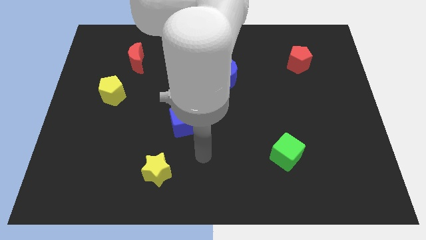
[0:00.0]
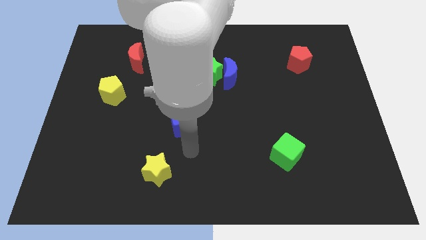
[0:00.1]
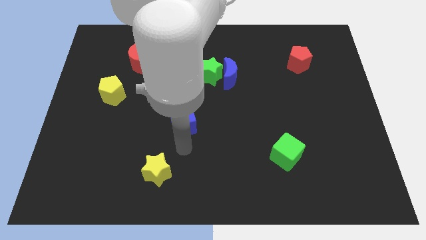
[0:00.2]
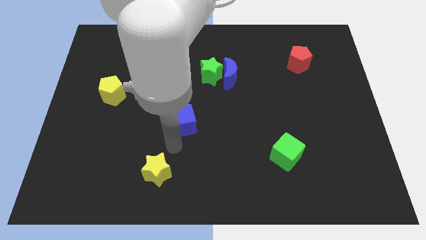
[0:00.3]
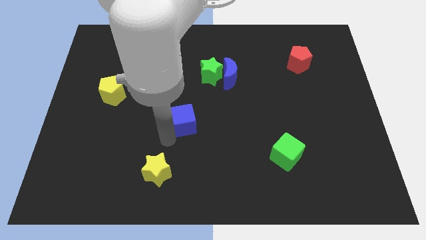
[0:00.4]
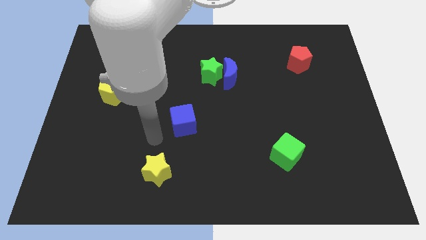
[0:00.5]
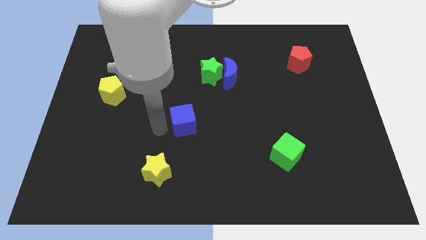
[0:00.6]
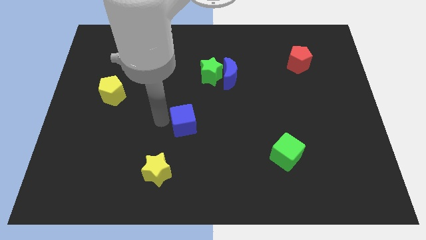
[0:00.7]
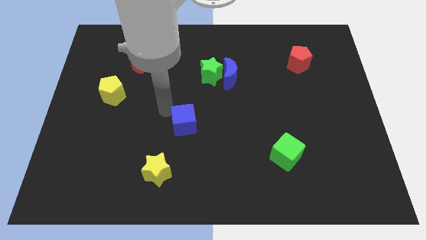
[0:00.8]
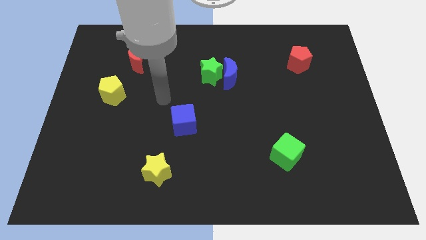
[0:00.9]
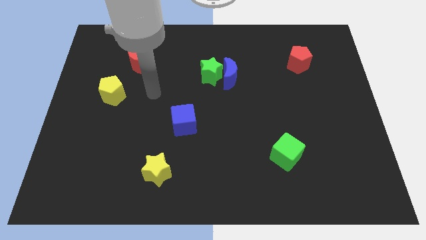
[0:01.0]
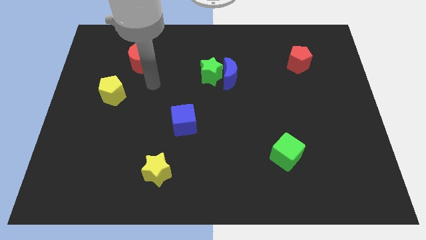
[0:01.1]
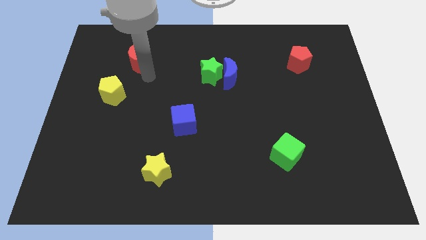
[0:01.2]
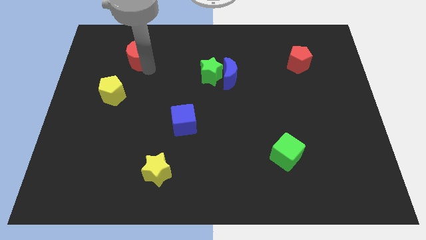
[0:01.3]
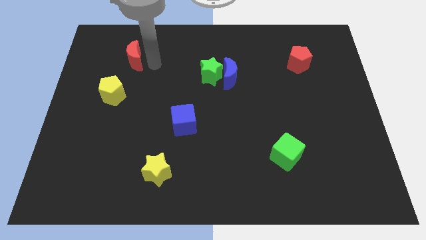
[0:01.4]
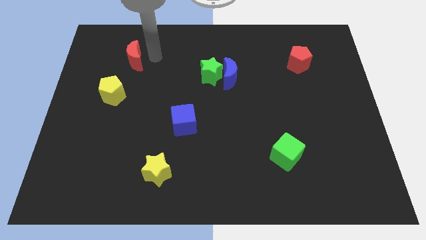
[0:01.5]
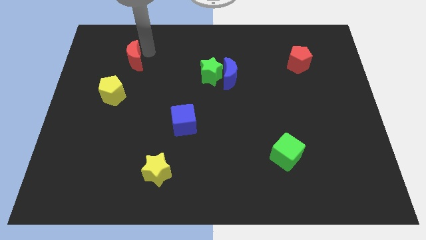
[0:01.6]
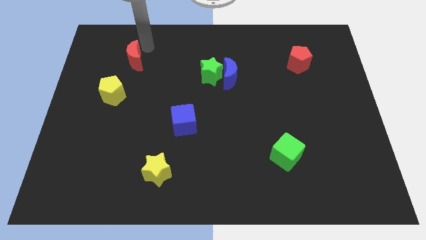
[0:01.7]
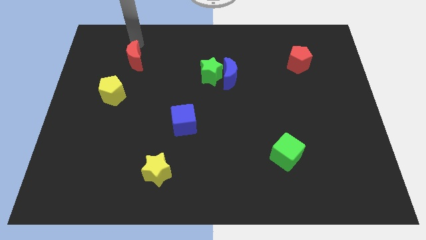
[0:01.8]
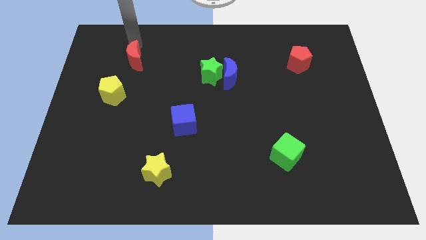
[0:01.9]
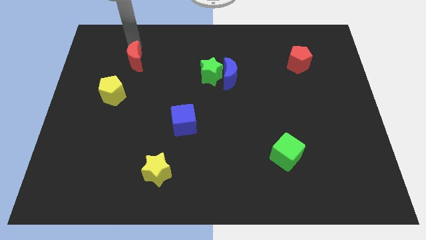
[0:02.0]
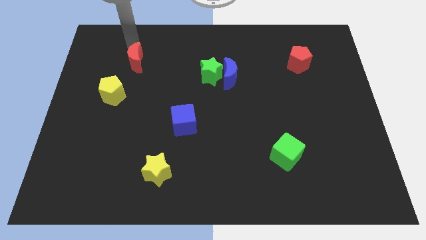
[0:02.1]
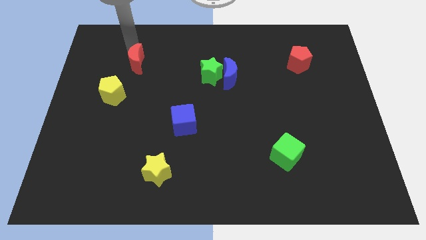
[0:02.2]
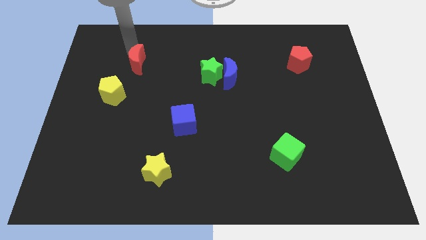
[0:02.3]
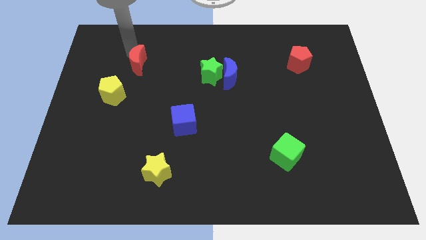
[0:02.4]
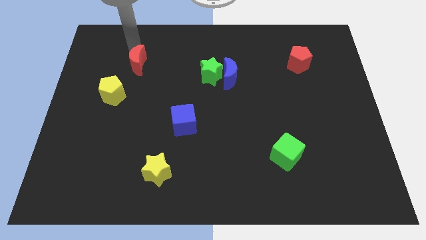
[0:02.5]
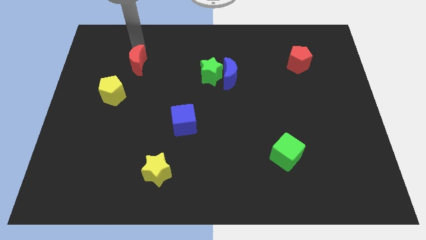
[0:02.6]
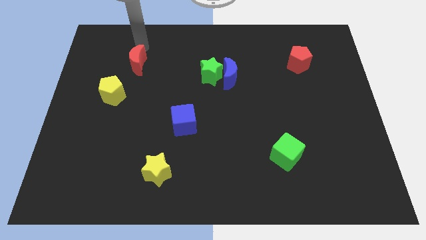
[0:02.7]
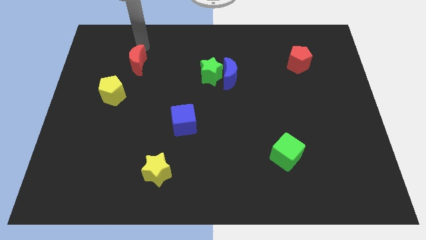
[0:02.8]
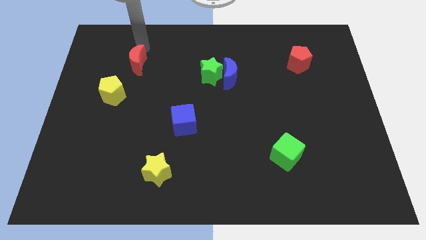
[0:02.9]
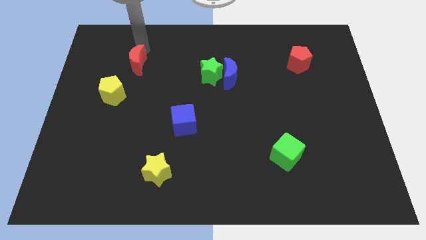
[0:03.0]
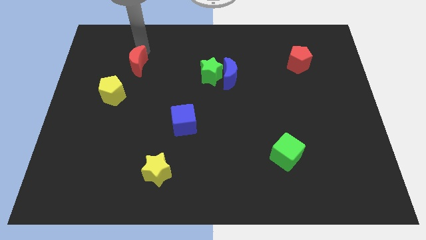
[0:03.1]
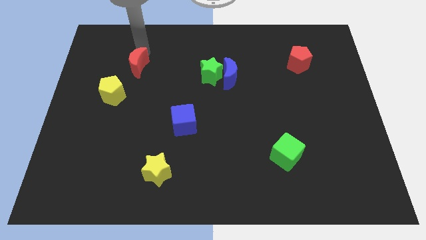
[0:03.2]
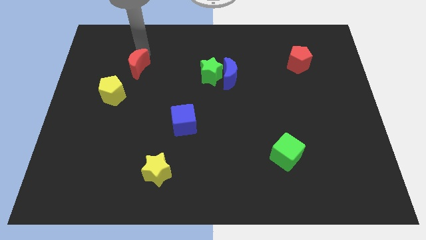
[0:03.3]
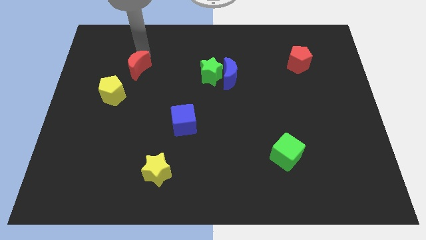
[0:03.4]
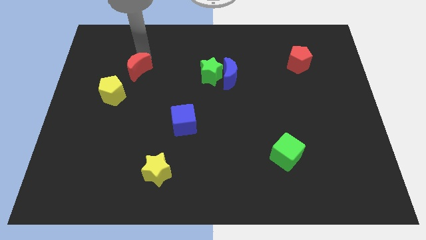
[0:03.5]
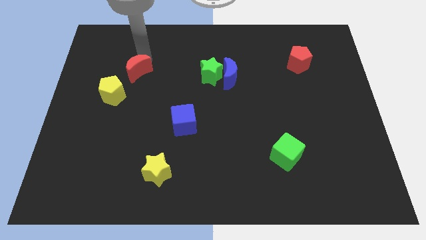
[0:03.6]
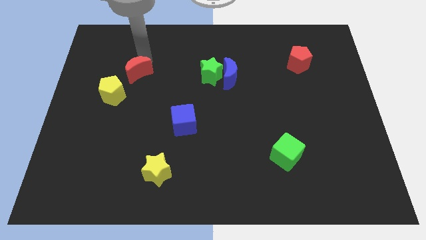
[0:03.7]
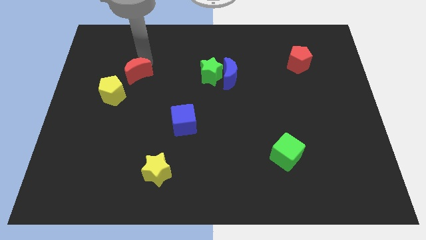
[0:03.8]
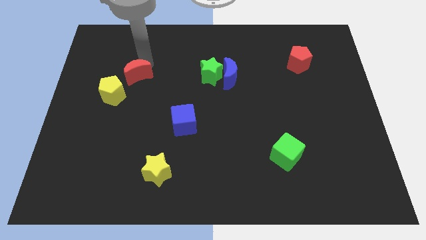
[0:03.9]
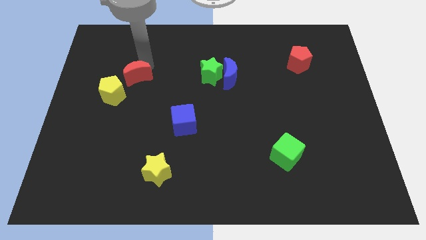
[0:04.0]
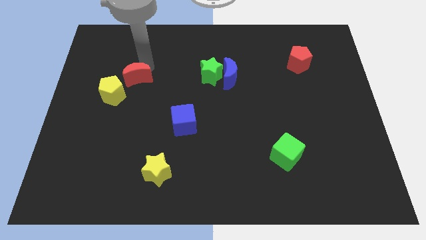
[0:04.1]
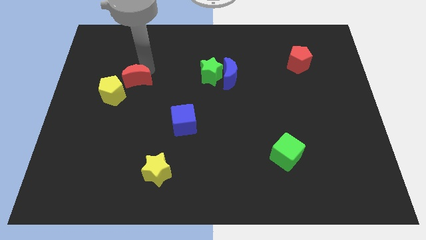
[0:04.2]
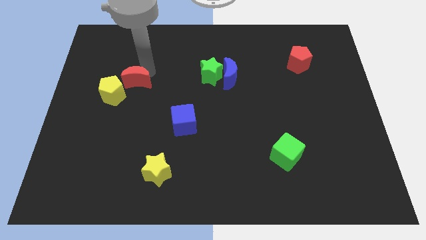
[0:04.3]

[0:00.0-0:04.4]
move the red moon a bit downwards

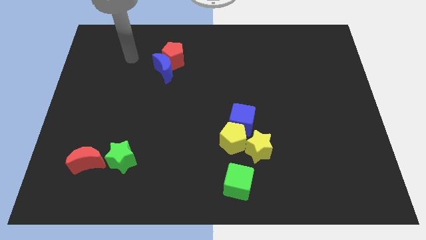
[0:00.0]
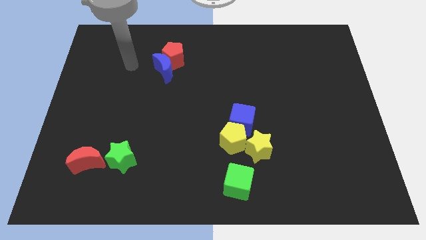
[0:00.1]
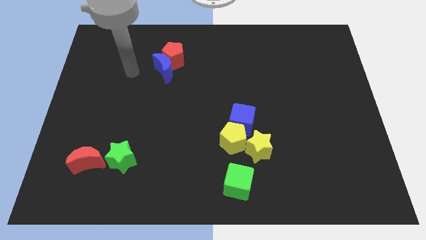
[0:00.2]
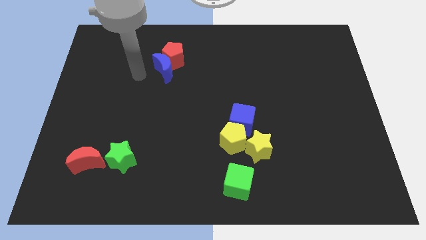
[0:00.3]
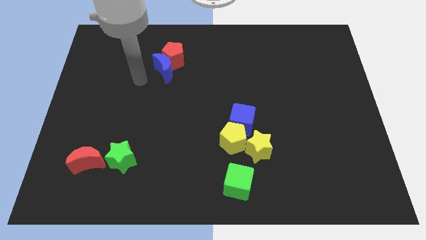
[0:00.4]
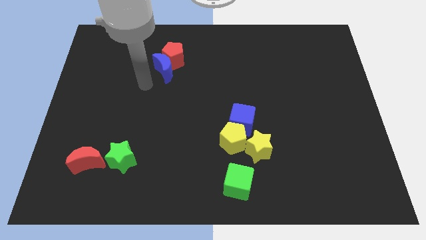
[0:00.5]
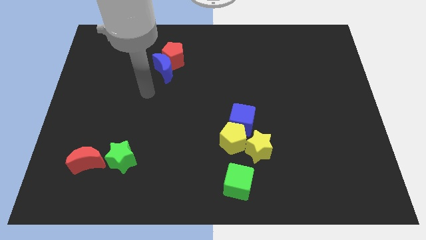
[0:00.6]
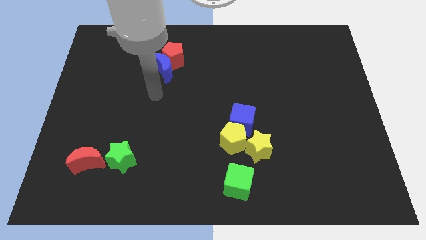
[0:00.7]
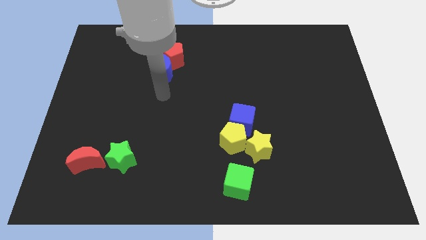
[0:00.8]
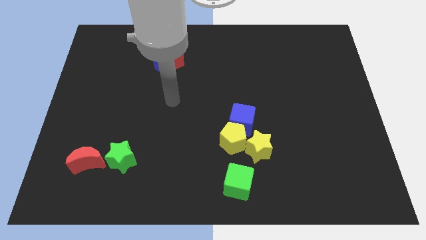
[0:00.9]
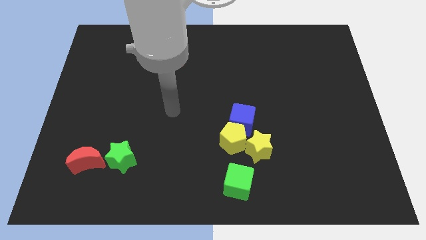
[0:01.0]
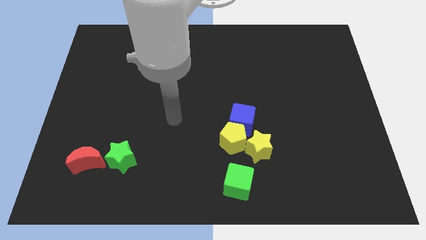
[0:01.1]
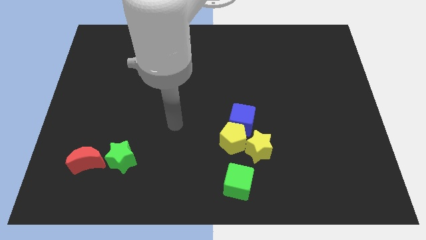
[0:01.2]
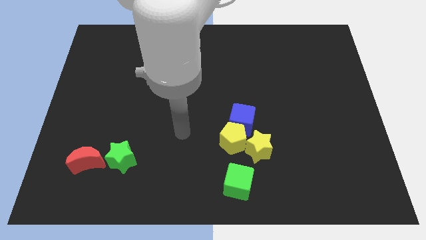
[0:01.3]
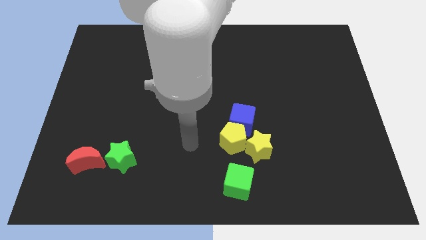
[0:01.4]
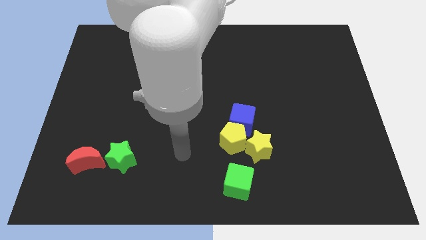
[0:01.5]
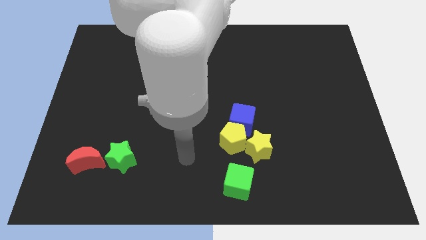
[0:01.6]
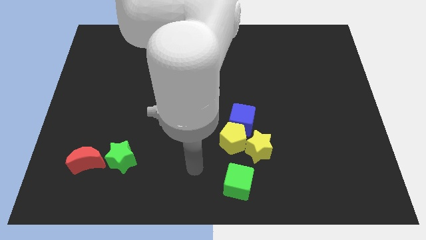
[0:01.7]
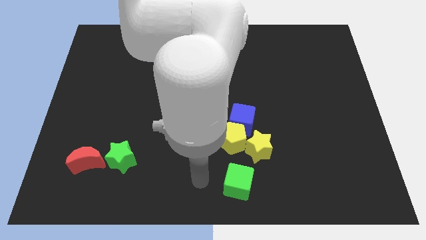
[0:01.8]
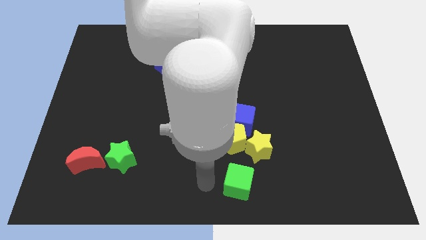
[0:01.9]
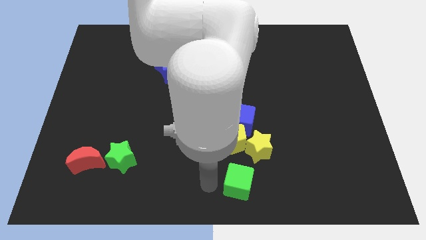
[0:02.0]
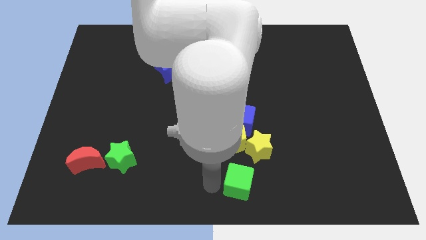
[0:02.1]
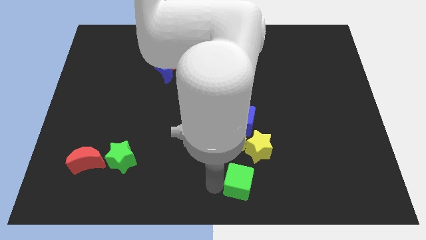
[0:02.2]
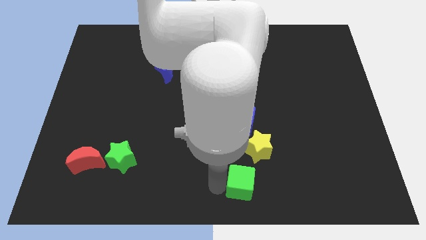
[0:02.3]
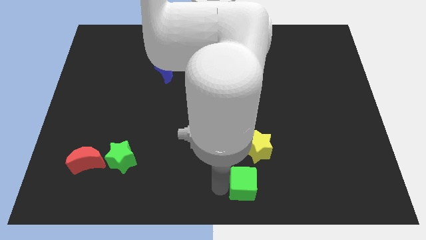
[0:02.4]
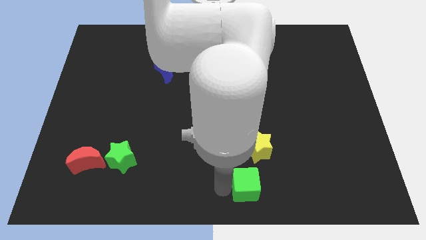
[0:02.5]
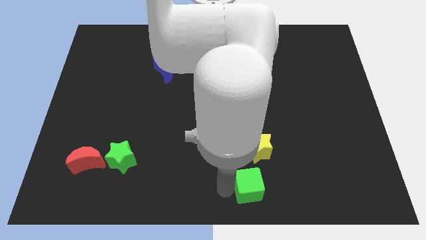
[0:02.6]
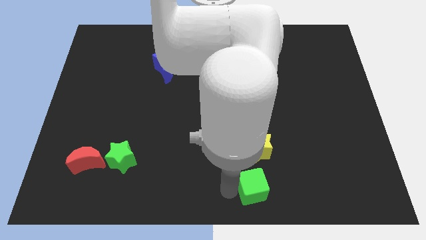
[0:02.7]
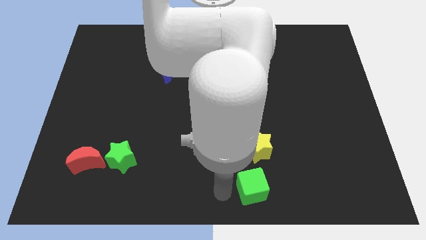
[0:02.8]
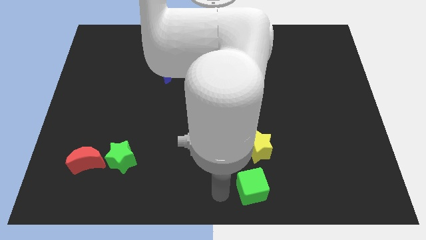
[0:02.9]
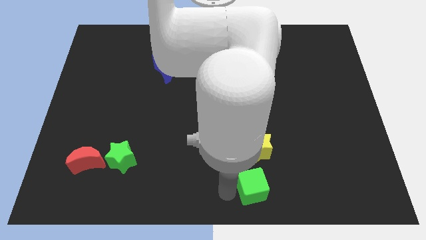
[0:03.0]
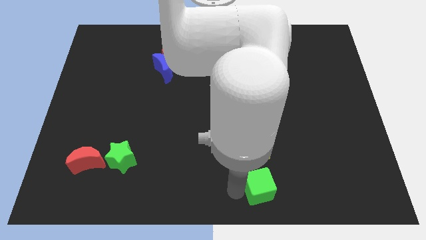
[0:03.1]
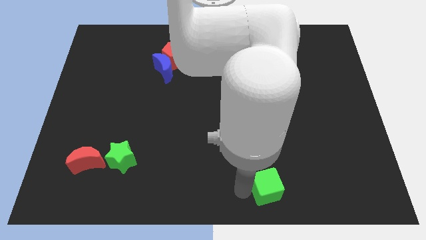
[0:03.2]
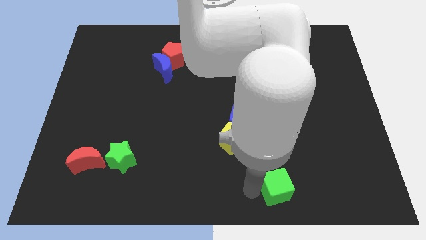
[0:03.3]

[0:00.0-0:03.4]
slightly slide the green cube right
